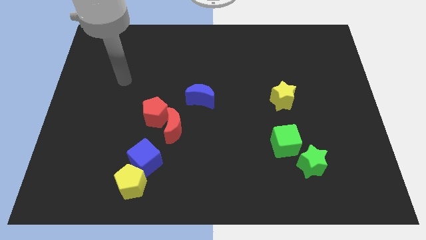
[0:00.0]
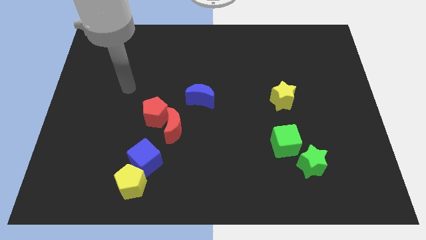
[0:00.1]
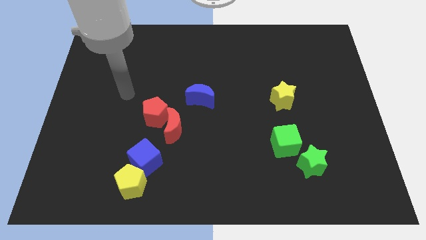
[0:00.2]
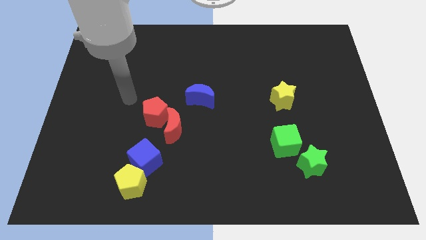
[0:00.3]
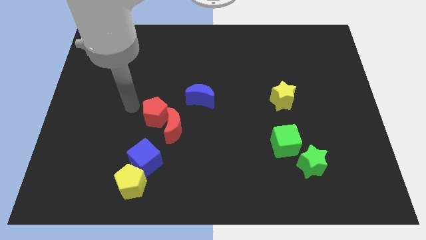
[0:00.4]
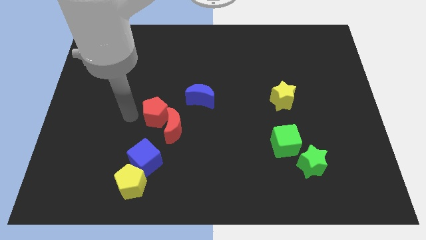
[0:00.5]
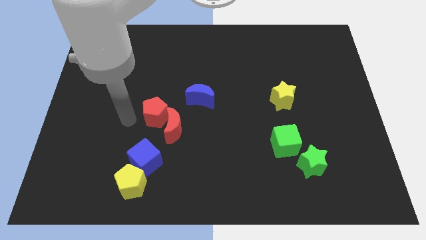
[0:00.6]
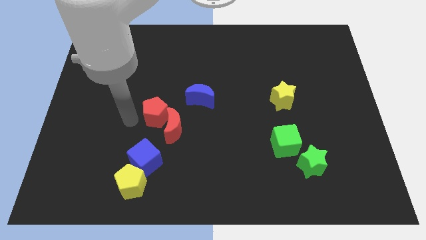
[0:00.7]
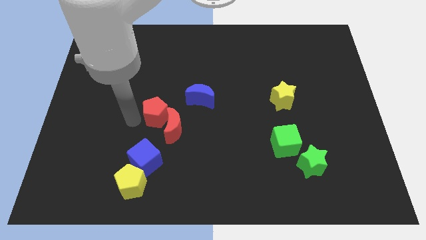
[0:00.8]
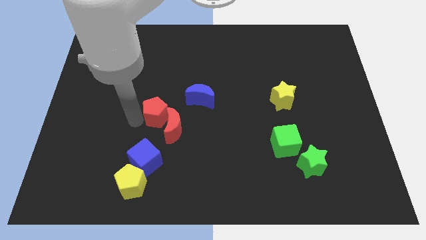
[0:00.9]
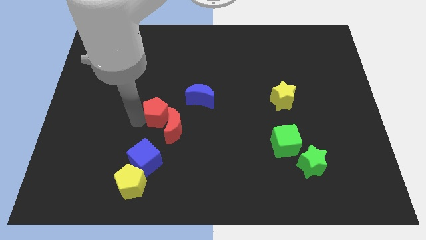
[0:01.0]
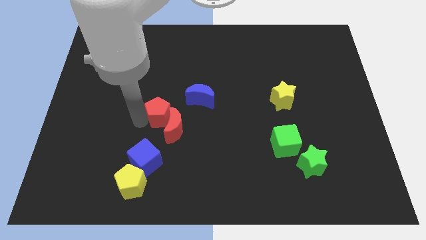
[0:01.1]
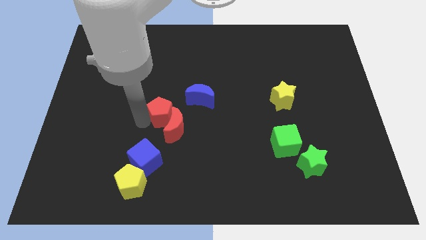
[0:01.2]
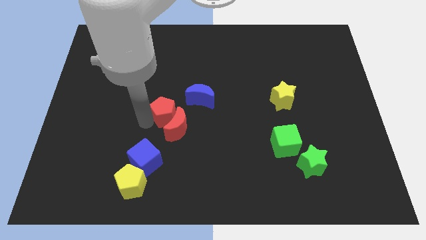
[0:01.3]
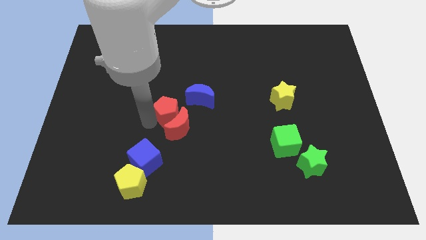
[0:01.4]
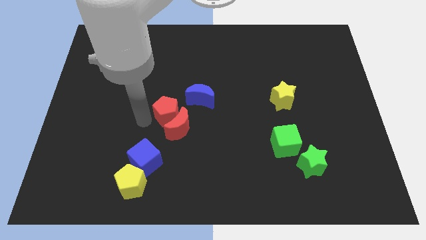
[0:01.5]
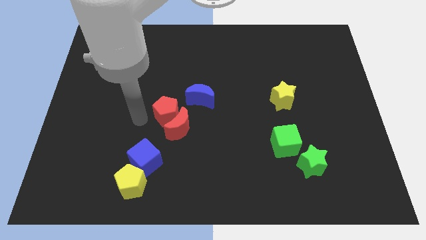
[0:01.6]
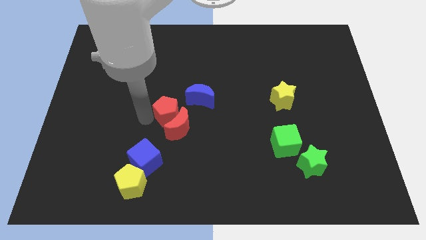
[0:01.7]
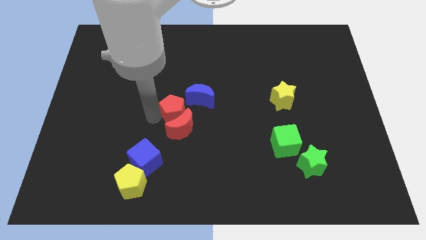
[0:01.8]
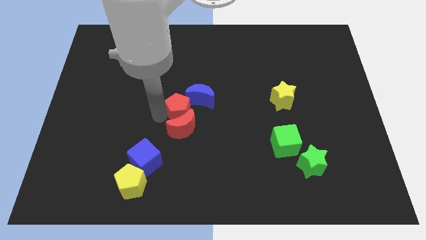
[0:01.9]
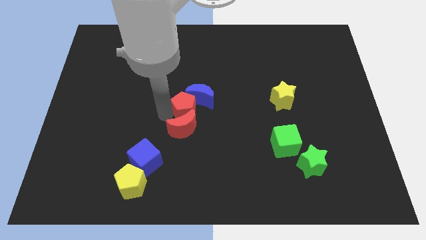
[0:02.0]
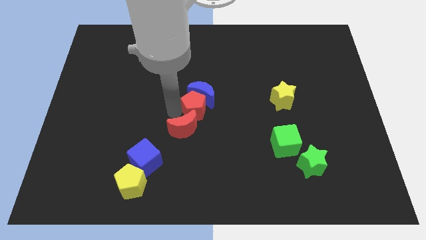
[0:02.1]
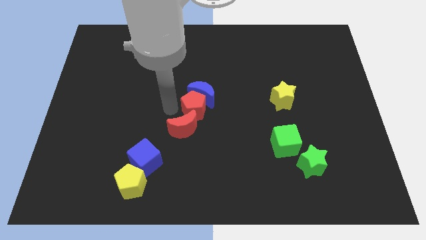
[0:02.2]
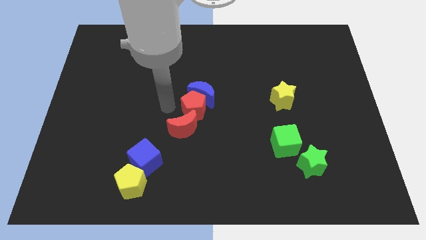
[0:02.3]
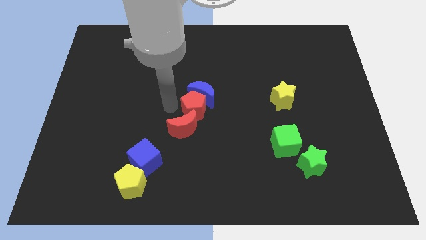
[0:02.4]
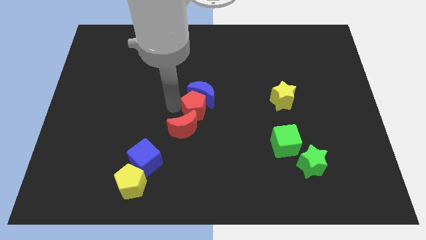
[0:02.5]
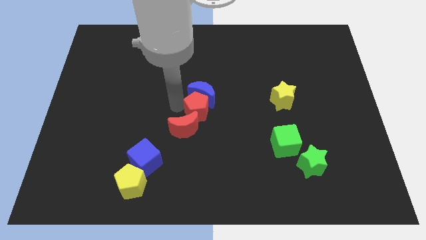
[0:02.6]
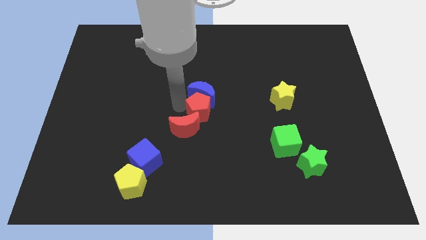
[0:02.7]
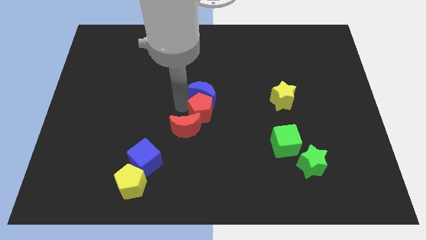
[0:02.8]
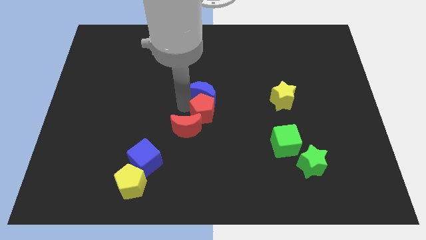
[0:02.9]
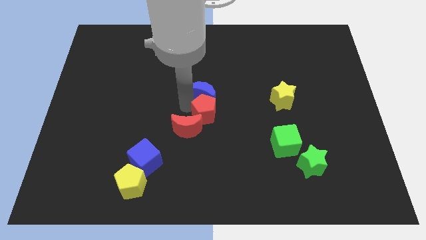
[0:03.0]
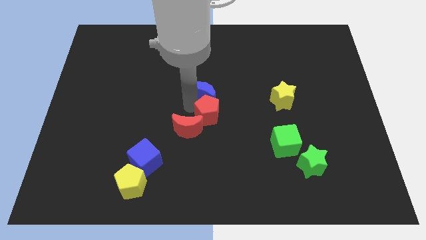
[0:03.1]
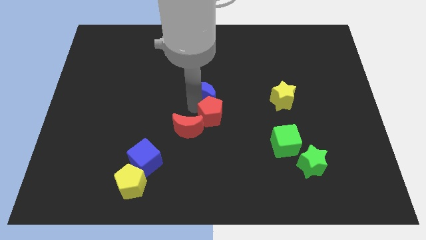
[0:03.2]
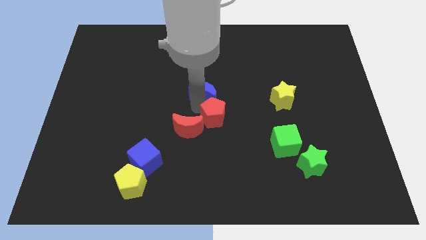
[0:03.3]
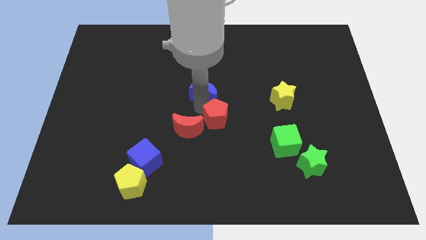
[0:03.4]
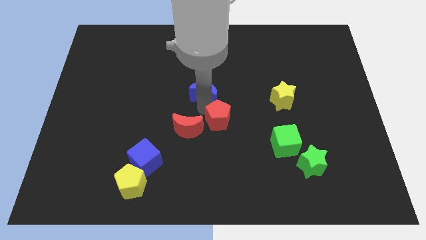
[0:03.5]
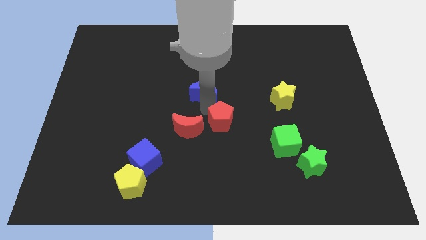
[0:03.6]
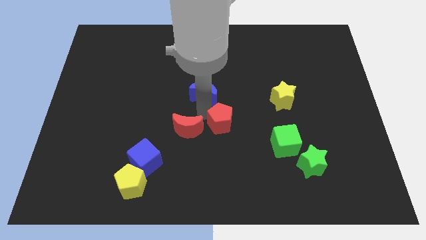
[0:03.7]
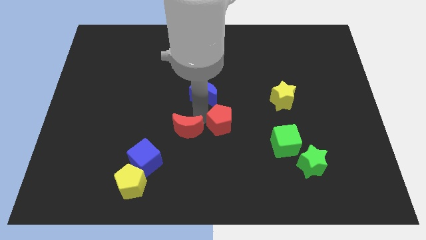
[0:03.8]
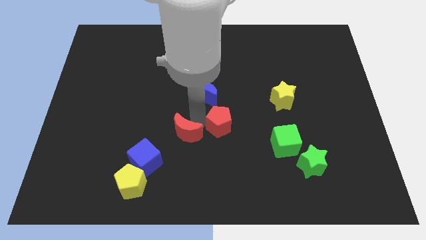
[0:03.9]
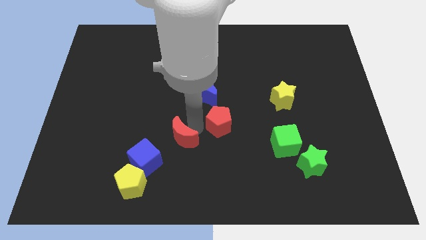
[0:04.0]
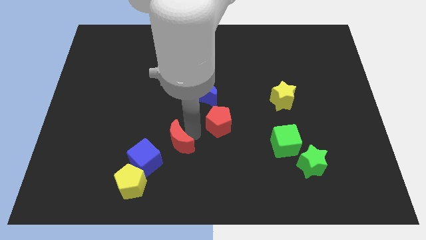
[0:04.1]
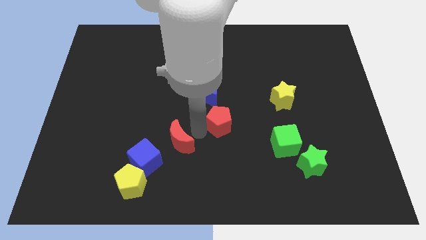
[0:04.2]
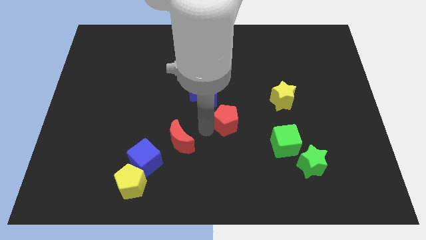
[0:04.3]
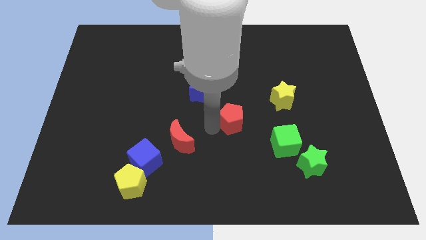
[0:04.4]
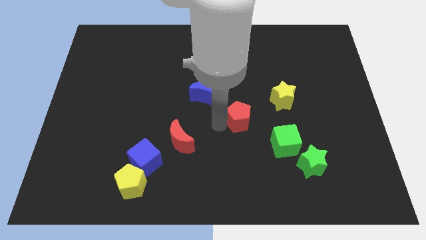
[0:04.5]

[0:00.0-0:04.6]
put the red pentagon to the top left side of the green cube

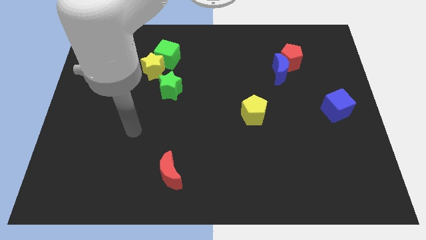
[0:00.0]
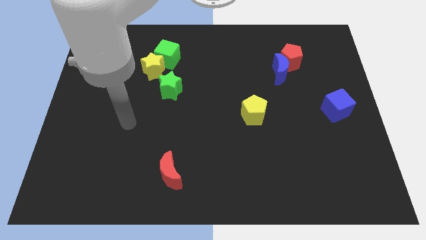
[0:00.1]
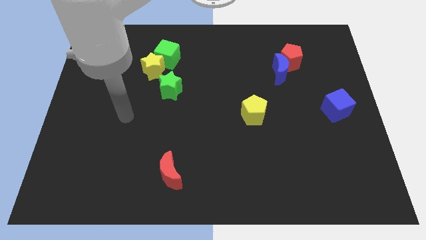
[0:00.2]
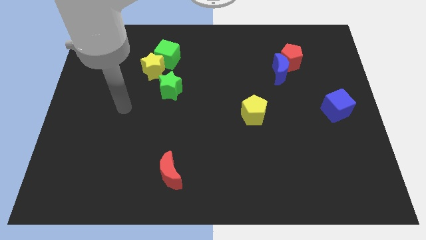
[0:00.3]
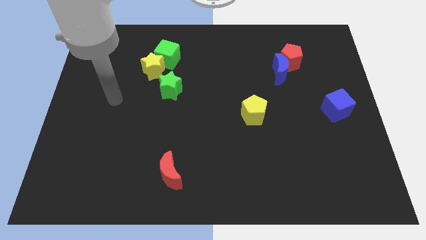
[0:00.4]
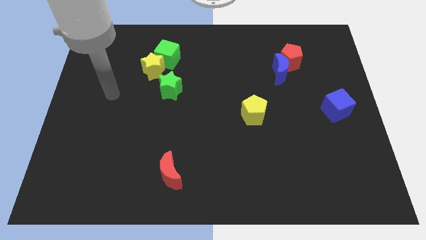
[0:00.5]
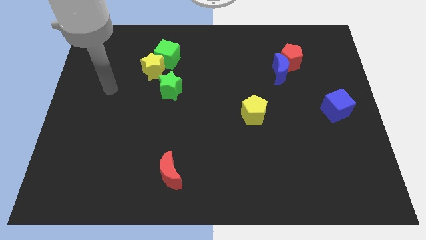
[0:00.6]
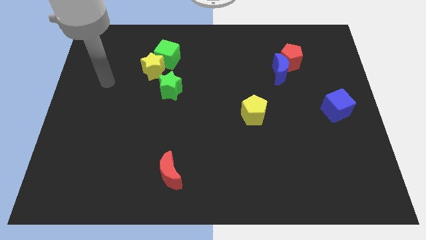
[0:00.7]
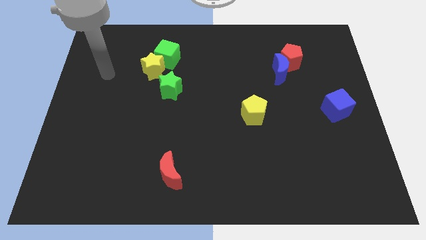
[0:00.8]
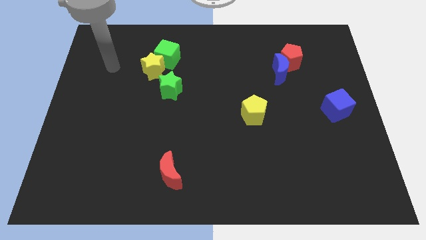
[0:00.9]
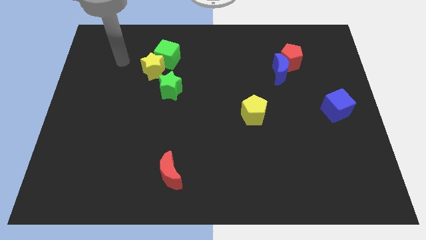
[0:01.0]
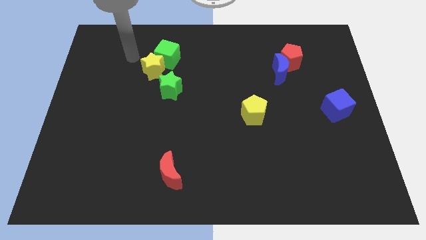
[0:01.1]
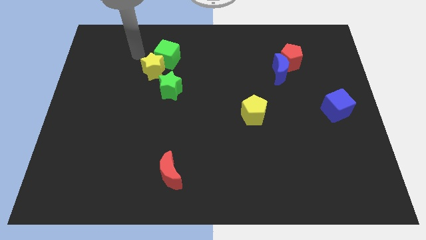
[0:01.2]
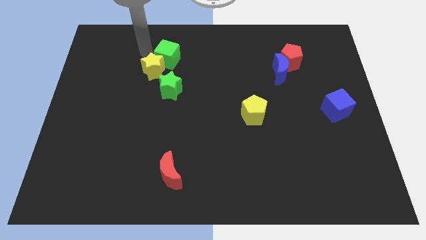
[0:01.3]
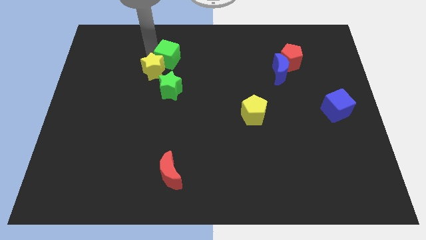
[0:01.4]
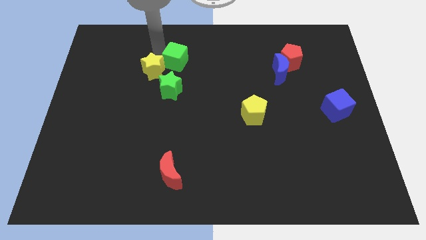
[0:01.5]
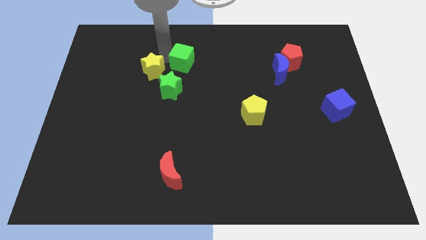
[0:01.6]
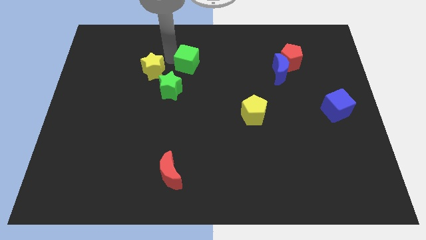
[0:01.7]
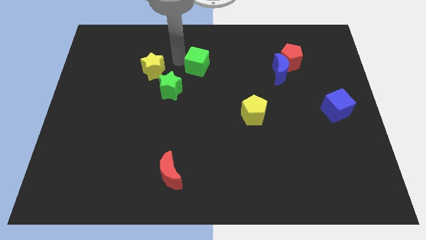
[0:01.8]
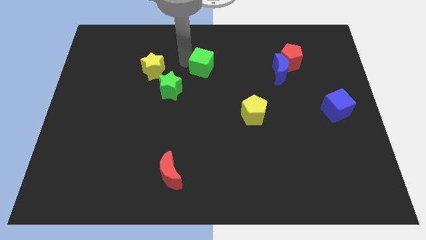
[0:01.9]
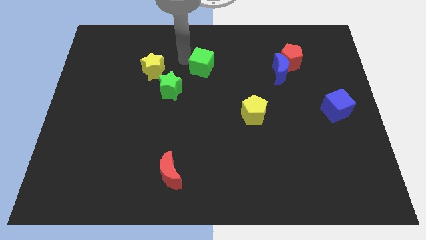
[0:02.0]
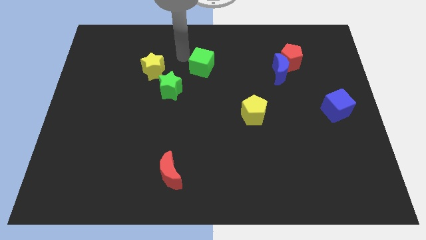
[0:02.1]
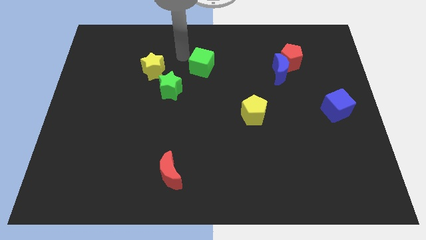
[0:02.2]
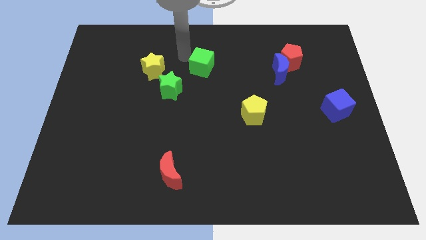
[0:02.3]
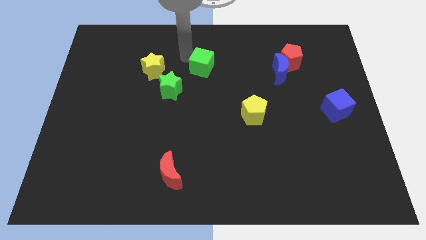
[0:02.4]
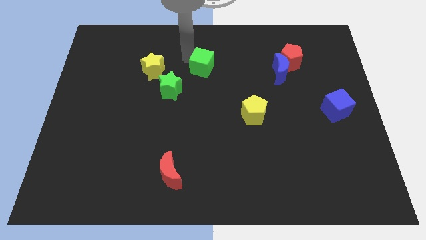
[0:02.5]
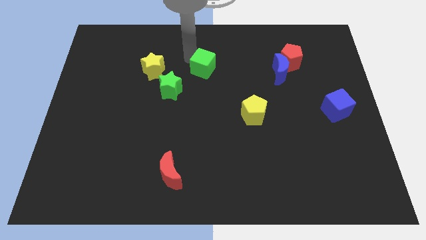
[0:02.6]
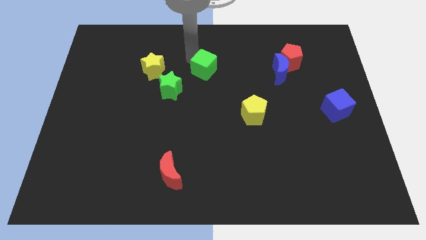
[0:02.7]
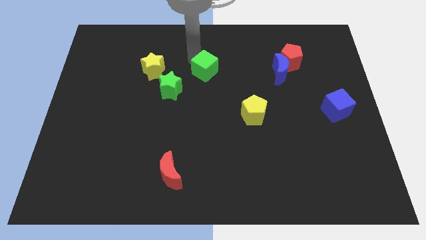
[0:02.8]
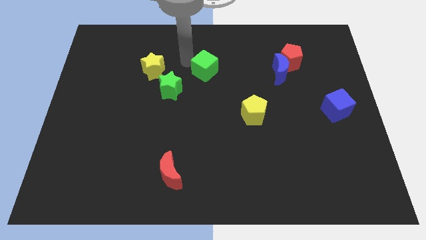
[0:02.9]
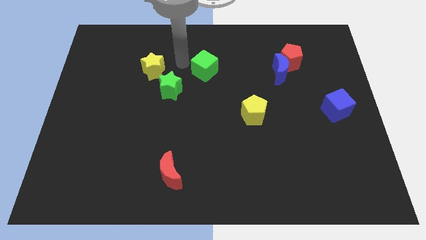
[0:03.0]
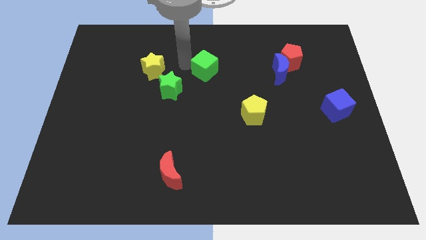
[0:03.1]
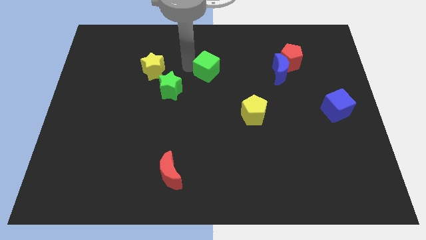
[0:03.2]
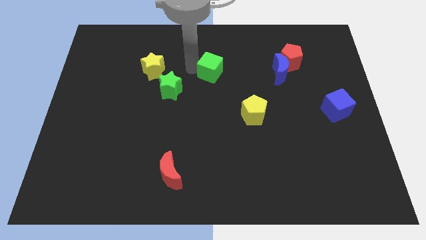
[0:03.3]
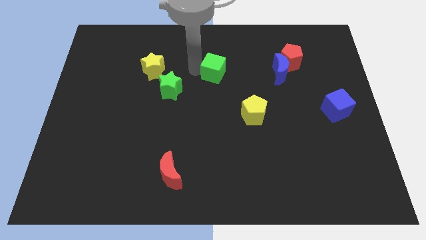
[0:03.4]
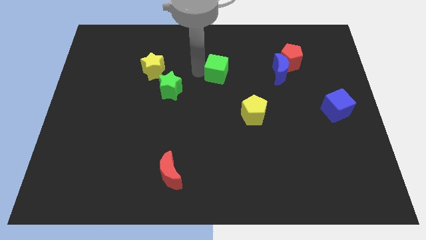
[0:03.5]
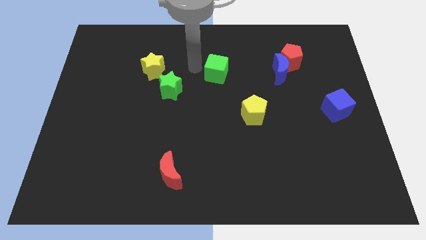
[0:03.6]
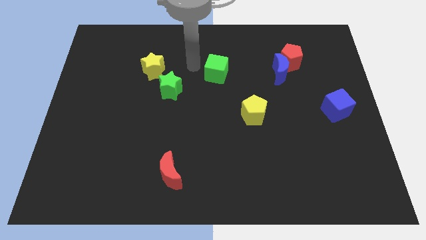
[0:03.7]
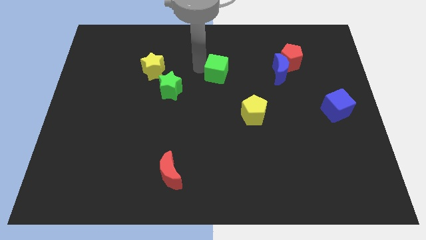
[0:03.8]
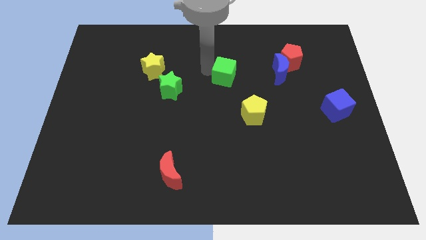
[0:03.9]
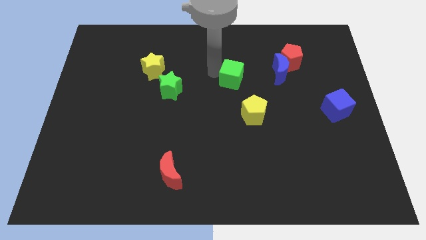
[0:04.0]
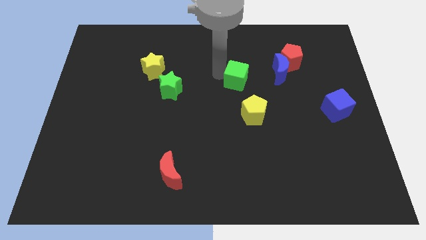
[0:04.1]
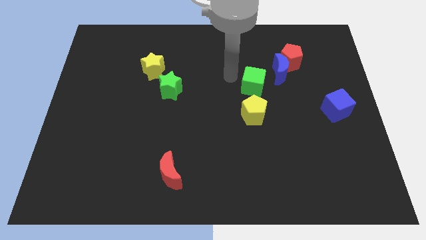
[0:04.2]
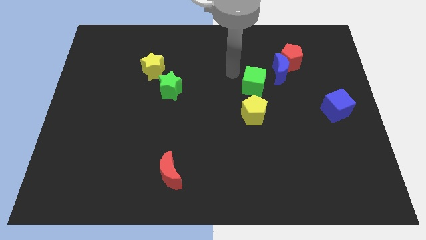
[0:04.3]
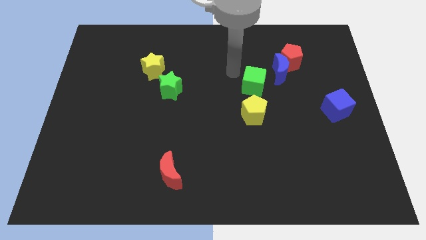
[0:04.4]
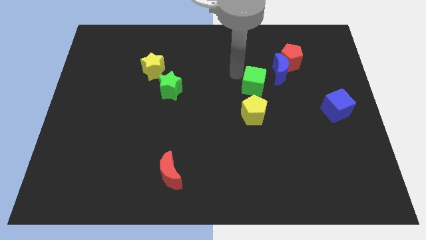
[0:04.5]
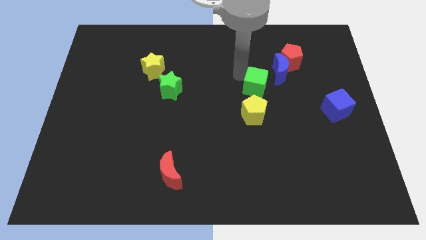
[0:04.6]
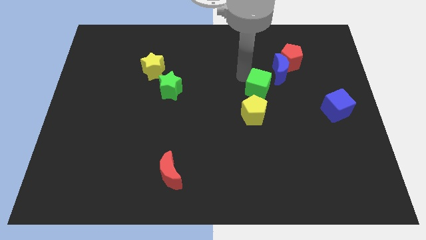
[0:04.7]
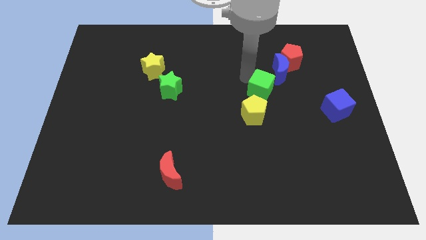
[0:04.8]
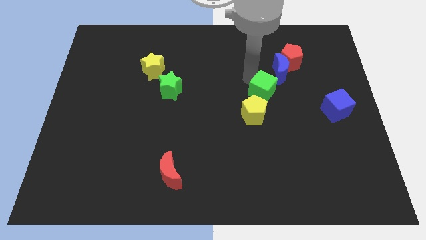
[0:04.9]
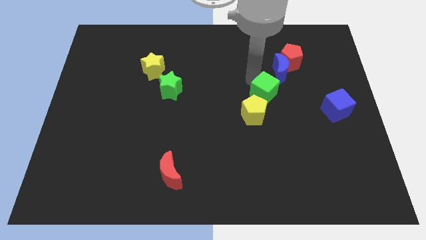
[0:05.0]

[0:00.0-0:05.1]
move the green cube to the bottom side of the blue moon
